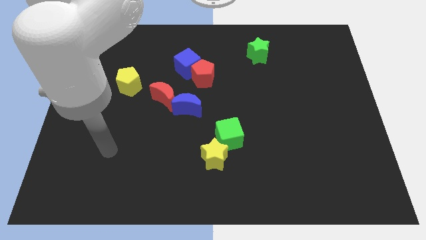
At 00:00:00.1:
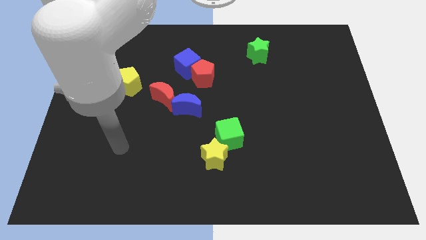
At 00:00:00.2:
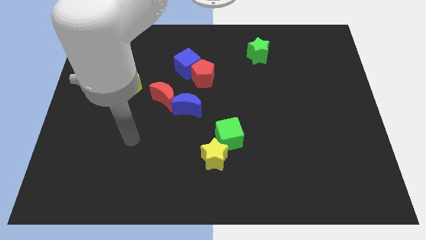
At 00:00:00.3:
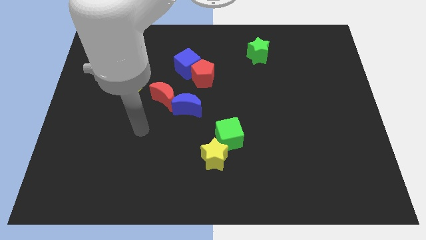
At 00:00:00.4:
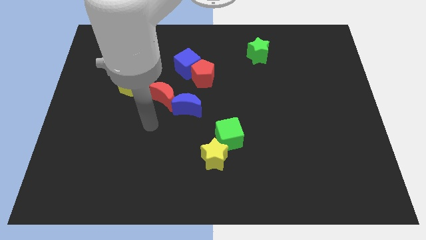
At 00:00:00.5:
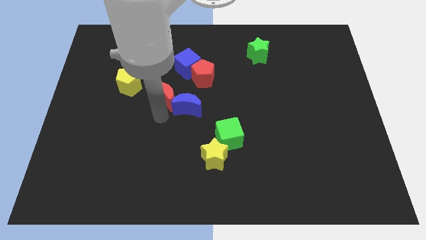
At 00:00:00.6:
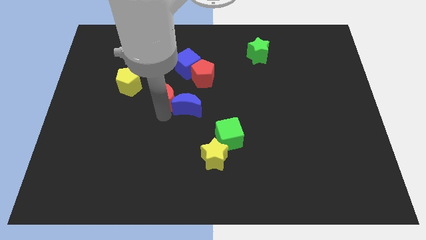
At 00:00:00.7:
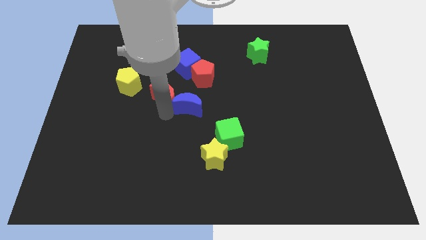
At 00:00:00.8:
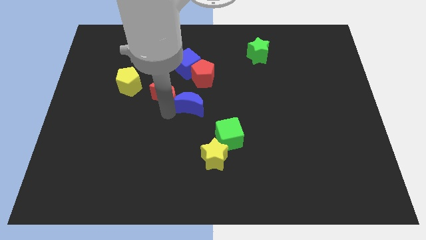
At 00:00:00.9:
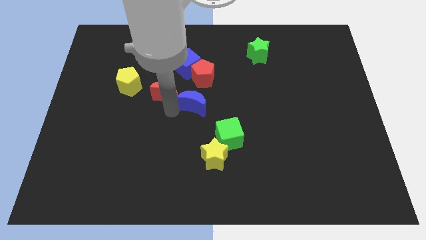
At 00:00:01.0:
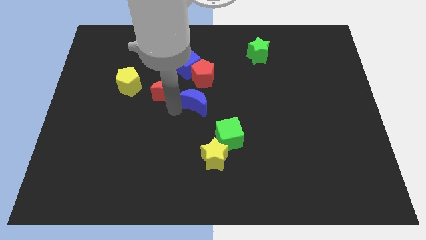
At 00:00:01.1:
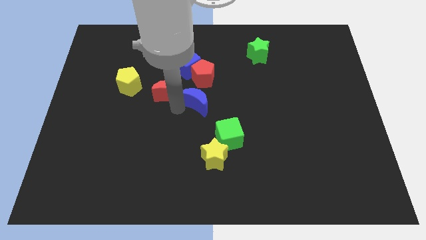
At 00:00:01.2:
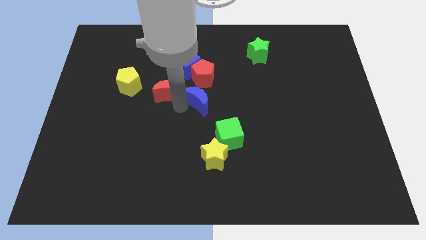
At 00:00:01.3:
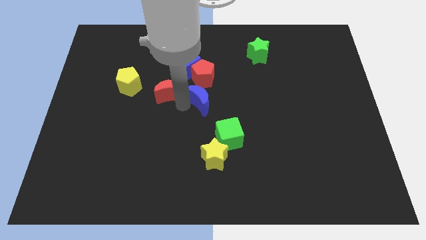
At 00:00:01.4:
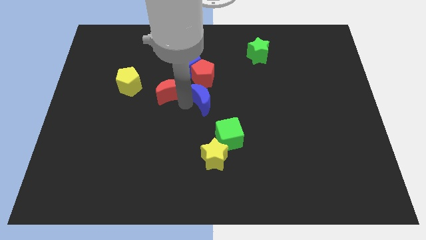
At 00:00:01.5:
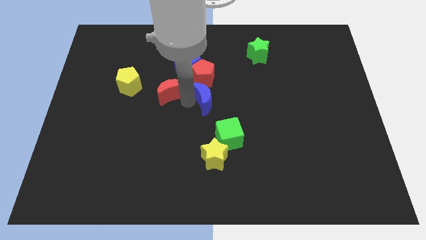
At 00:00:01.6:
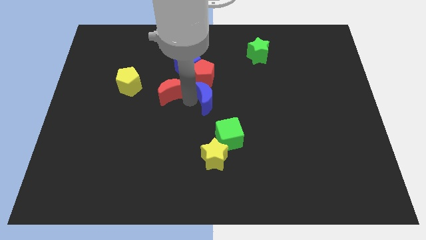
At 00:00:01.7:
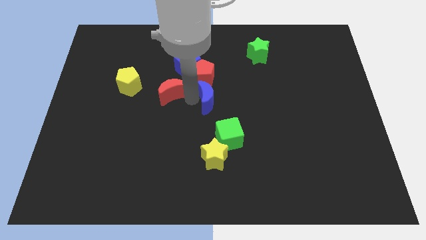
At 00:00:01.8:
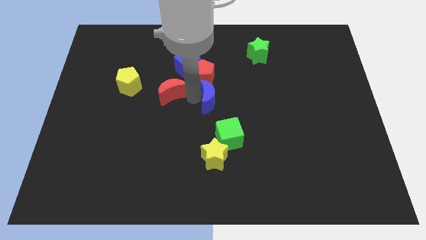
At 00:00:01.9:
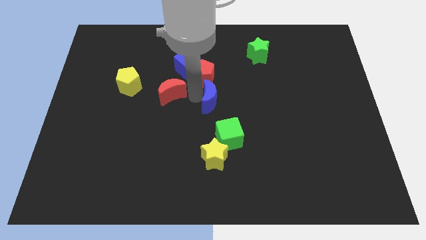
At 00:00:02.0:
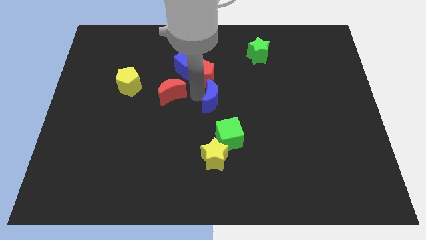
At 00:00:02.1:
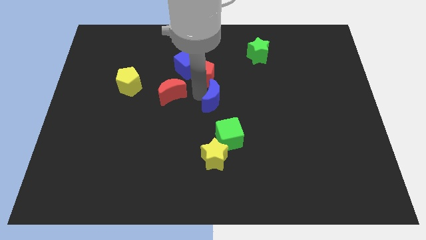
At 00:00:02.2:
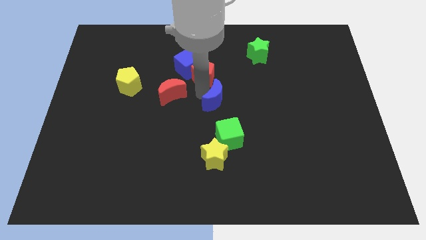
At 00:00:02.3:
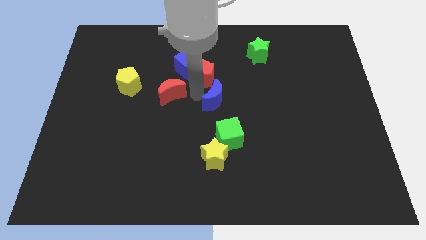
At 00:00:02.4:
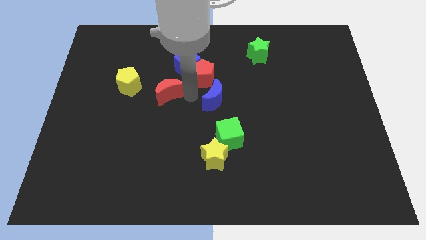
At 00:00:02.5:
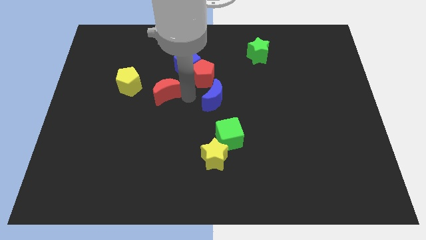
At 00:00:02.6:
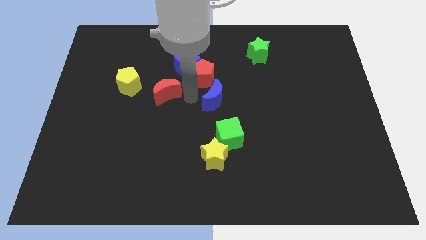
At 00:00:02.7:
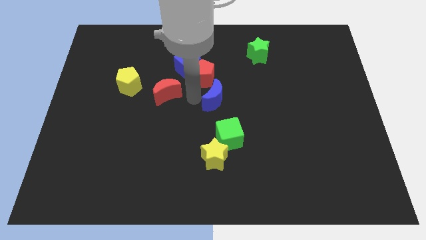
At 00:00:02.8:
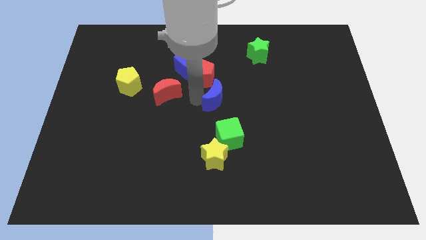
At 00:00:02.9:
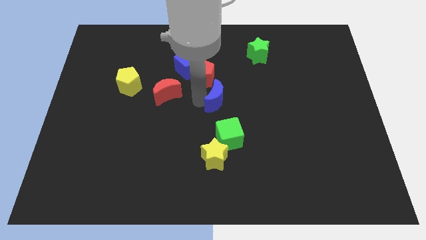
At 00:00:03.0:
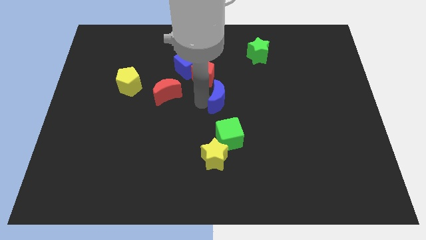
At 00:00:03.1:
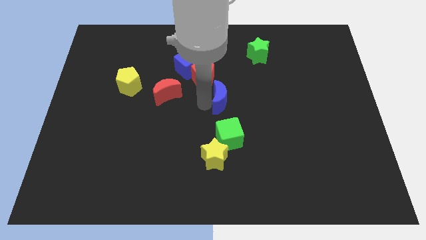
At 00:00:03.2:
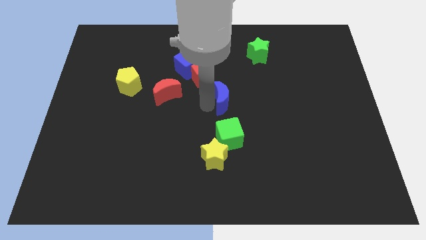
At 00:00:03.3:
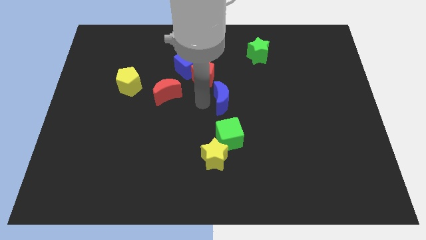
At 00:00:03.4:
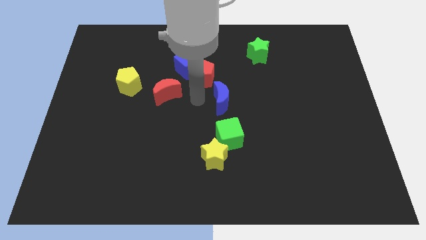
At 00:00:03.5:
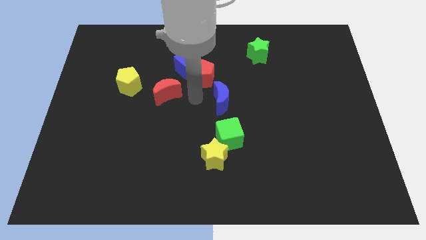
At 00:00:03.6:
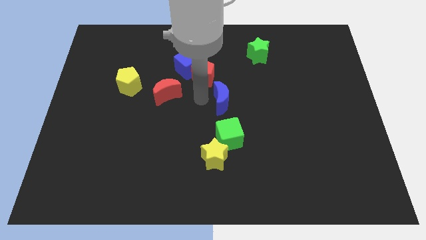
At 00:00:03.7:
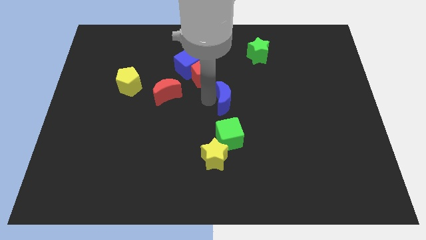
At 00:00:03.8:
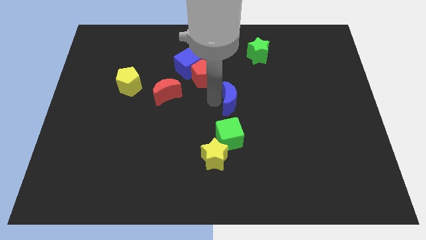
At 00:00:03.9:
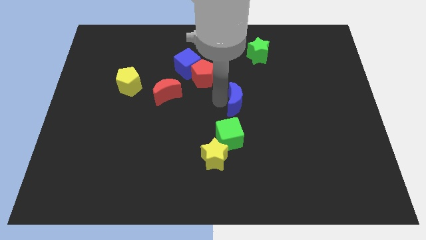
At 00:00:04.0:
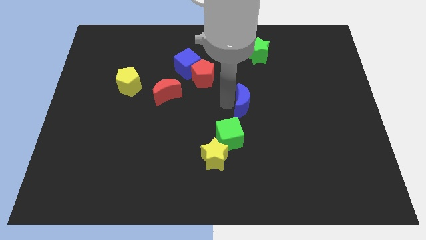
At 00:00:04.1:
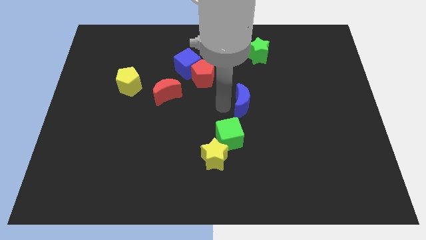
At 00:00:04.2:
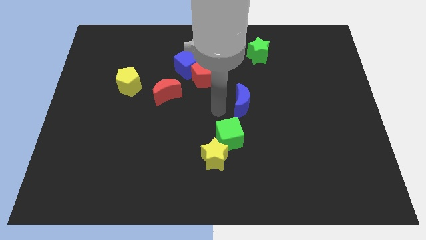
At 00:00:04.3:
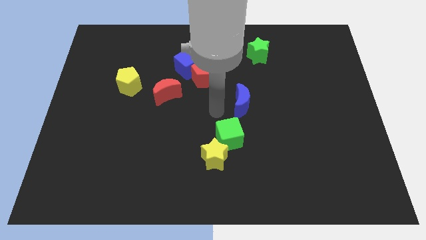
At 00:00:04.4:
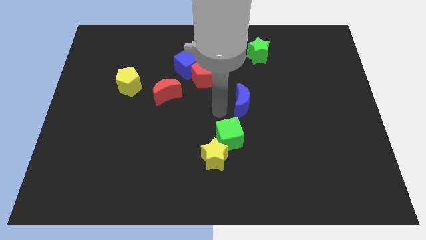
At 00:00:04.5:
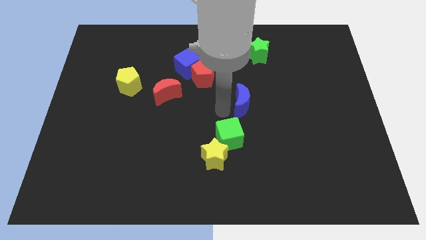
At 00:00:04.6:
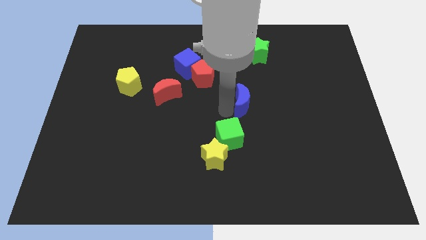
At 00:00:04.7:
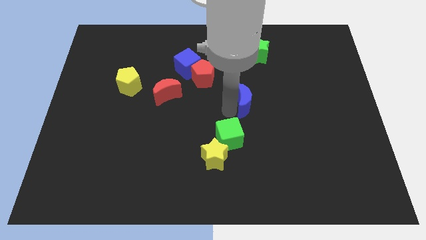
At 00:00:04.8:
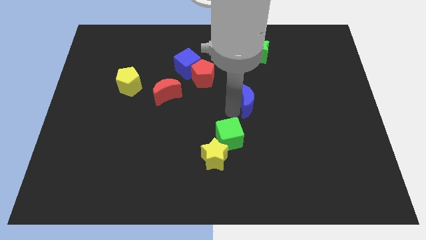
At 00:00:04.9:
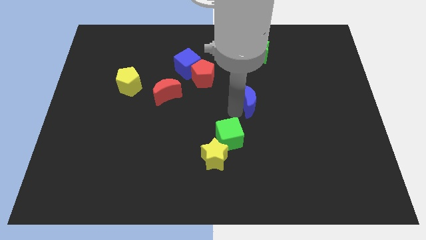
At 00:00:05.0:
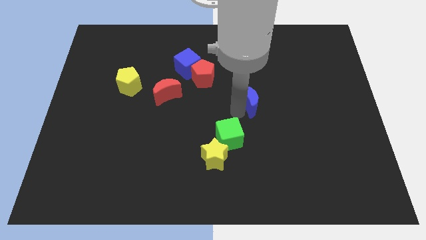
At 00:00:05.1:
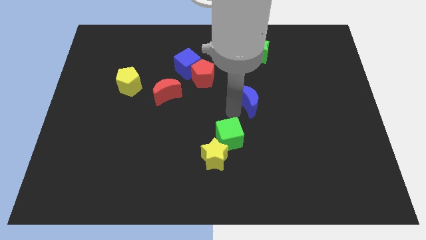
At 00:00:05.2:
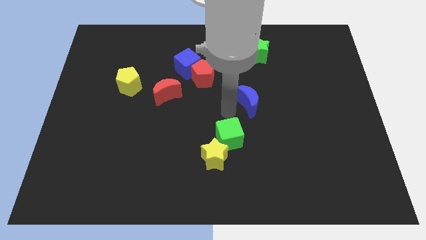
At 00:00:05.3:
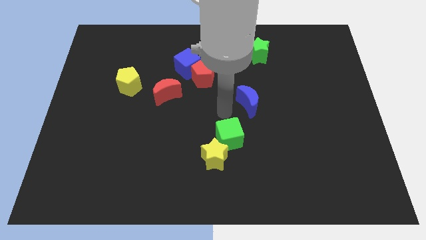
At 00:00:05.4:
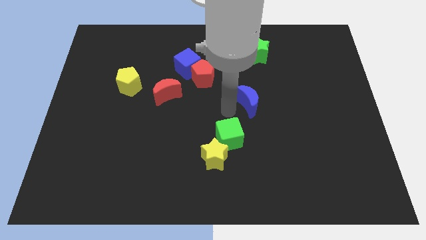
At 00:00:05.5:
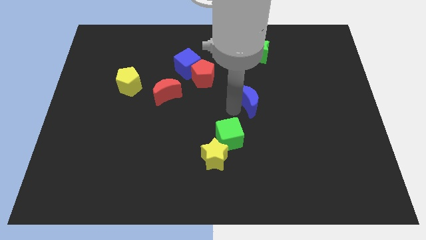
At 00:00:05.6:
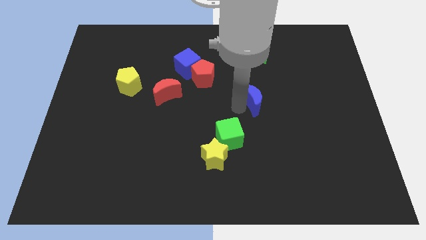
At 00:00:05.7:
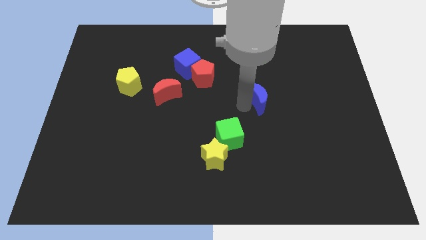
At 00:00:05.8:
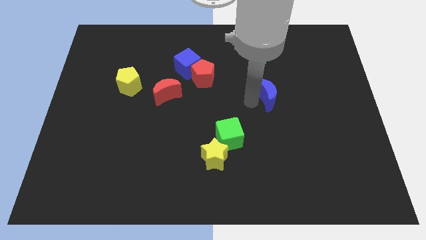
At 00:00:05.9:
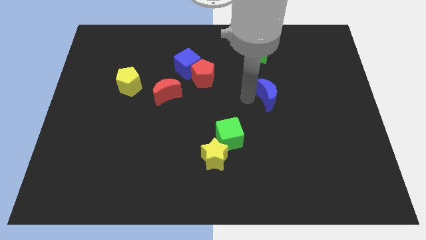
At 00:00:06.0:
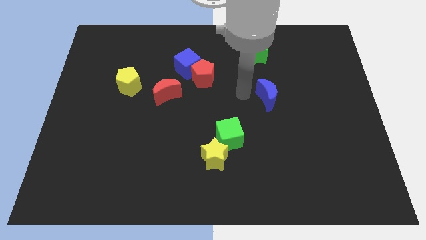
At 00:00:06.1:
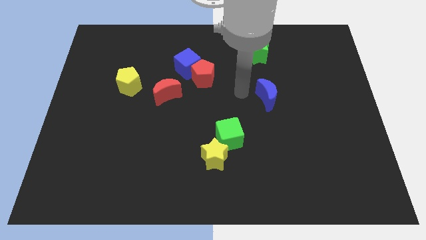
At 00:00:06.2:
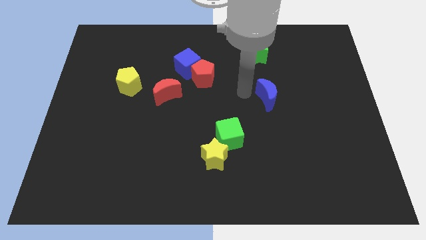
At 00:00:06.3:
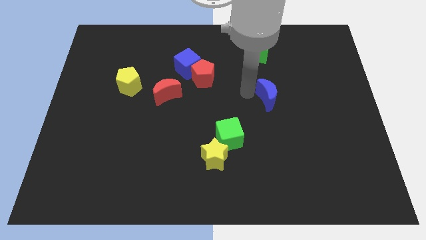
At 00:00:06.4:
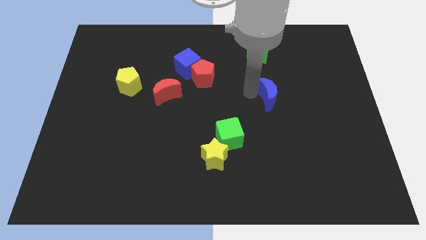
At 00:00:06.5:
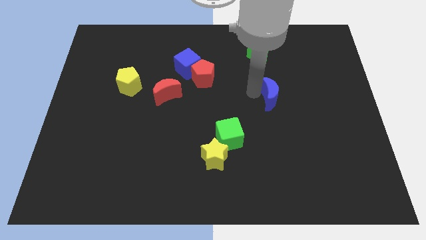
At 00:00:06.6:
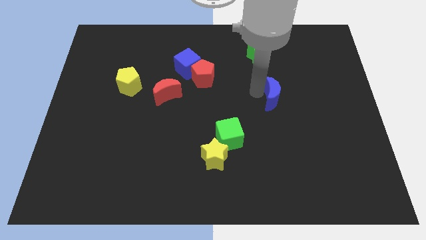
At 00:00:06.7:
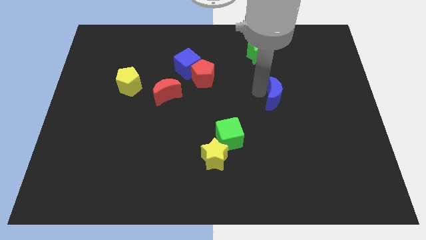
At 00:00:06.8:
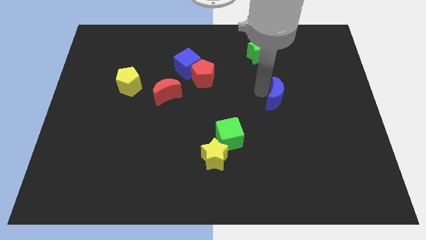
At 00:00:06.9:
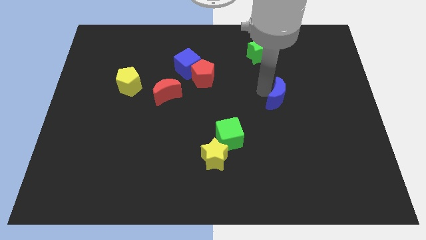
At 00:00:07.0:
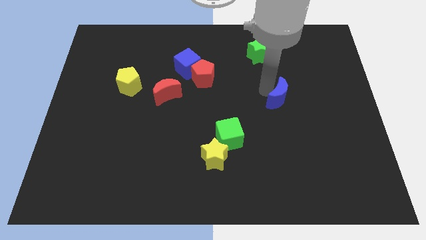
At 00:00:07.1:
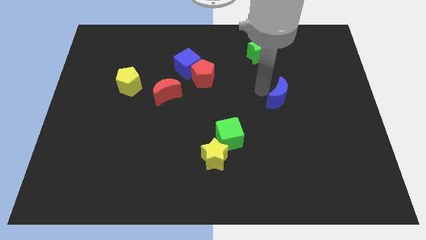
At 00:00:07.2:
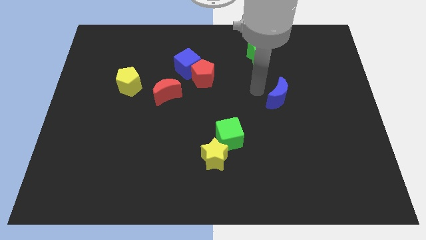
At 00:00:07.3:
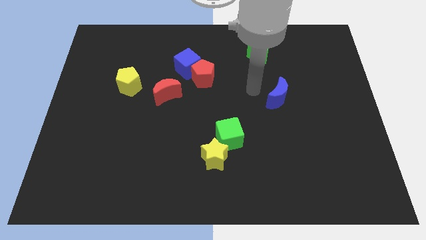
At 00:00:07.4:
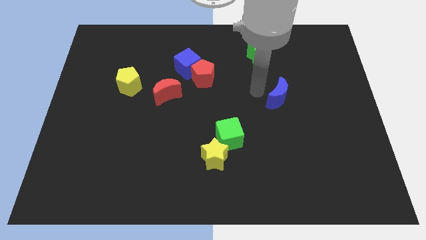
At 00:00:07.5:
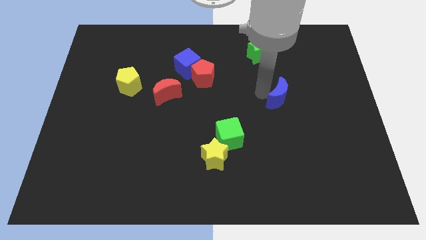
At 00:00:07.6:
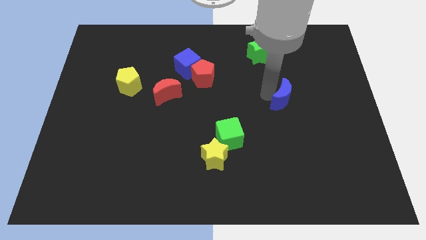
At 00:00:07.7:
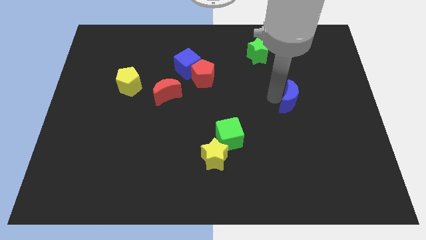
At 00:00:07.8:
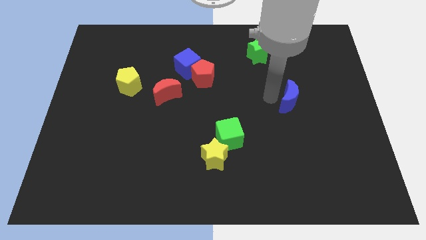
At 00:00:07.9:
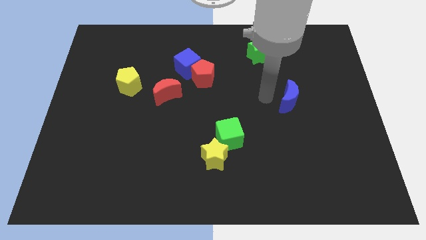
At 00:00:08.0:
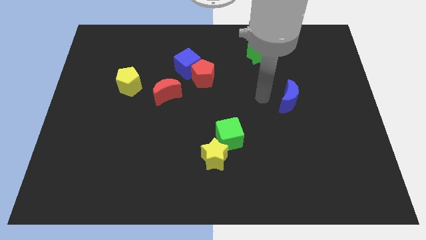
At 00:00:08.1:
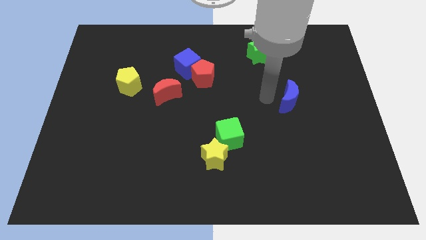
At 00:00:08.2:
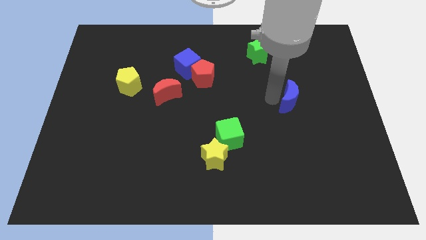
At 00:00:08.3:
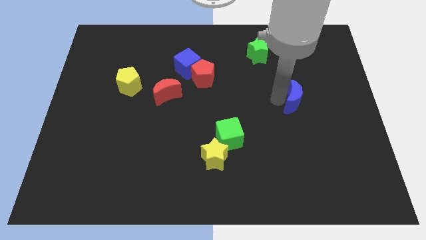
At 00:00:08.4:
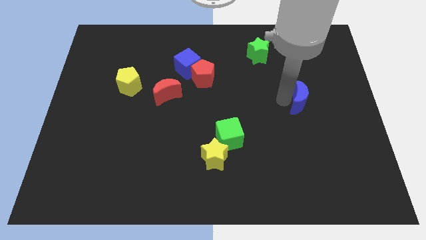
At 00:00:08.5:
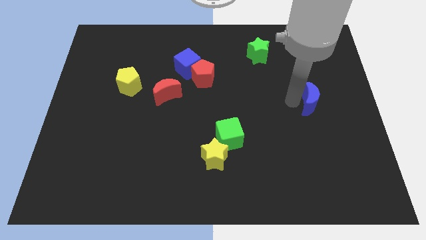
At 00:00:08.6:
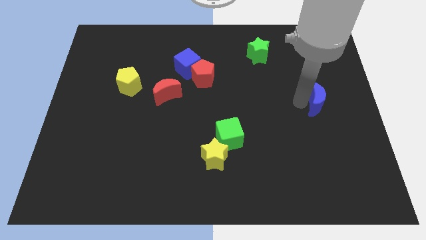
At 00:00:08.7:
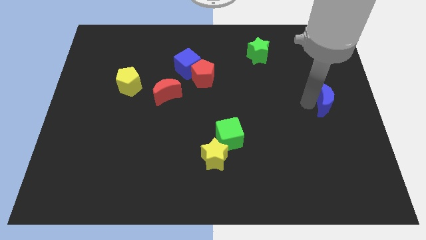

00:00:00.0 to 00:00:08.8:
put the blue moon to the right side
